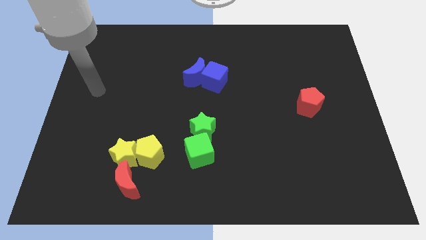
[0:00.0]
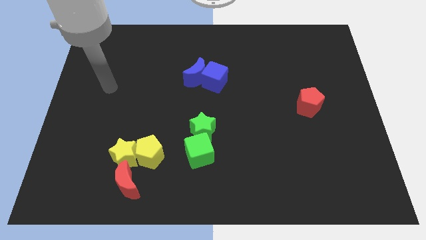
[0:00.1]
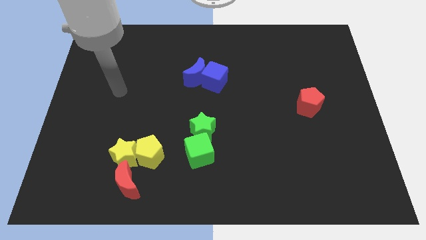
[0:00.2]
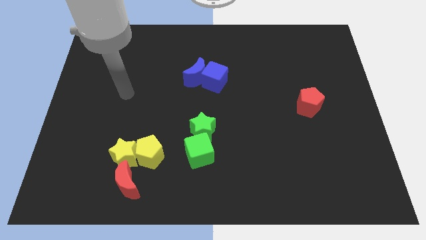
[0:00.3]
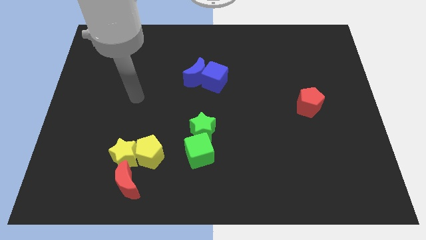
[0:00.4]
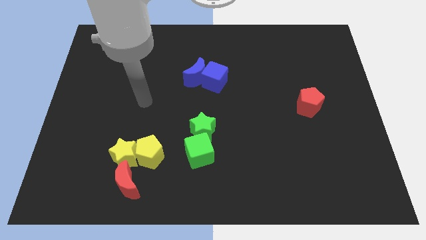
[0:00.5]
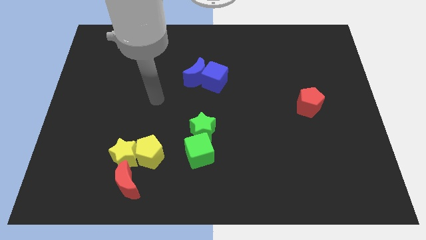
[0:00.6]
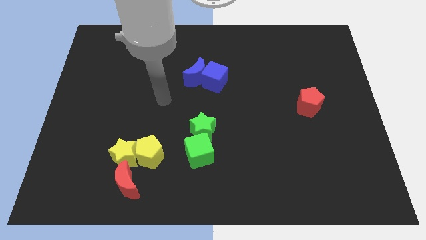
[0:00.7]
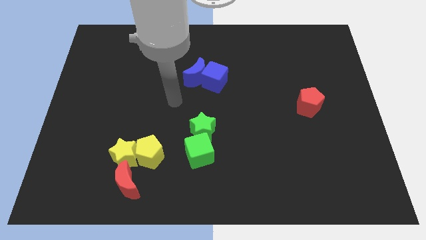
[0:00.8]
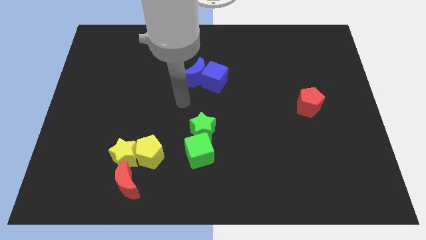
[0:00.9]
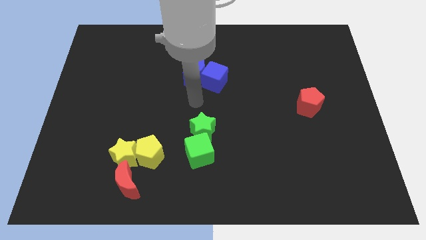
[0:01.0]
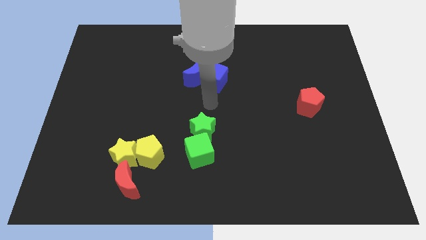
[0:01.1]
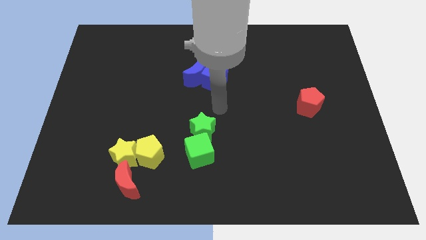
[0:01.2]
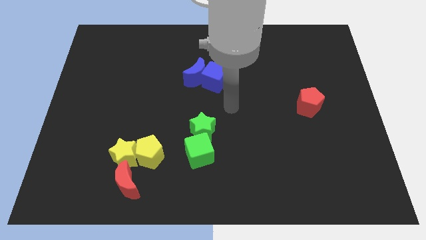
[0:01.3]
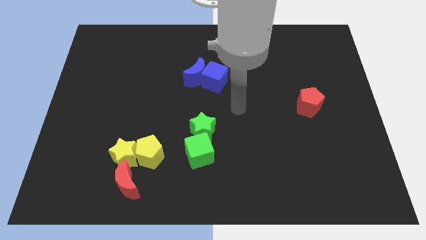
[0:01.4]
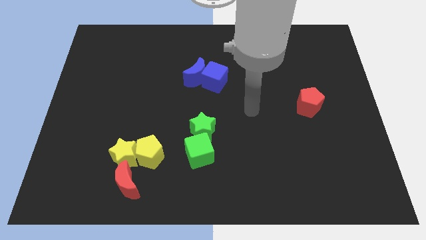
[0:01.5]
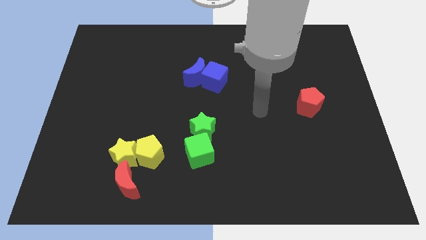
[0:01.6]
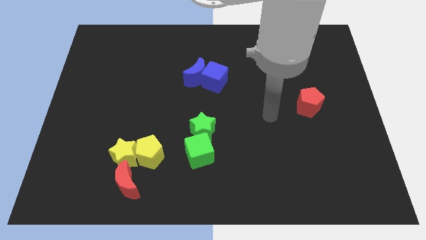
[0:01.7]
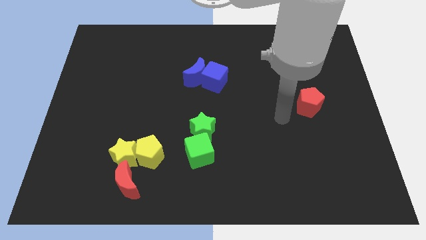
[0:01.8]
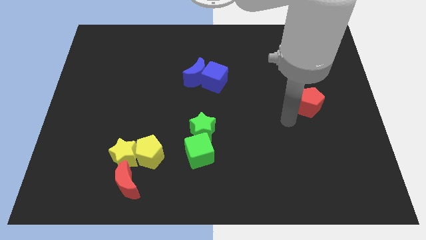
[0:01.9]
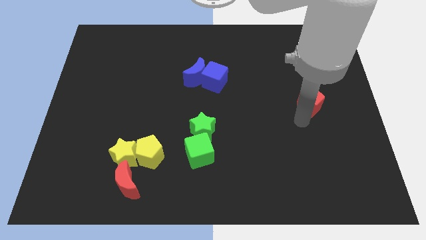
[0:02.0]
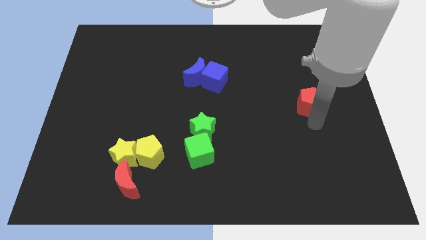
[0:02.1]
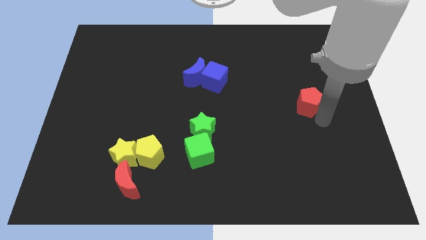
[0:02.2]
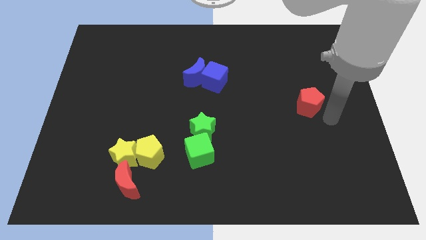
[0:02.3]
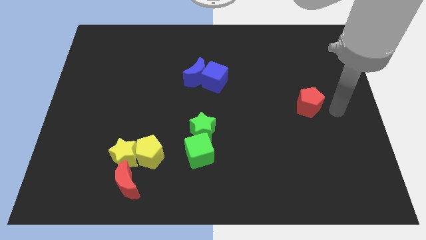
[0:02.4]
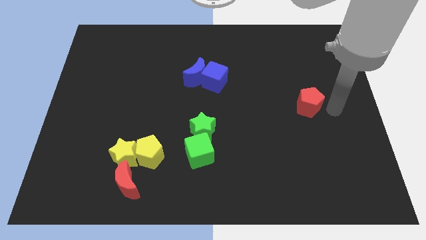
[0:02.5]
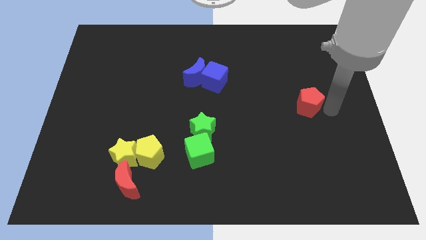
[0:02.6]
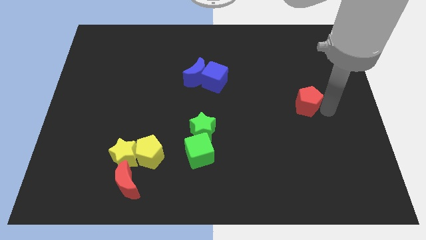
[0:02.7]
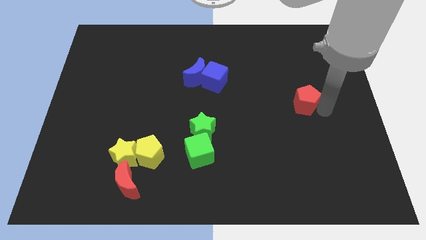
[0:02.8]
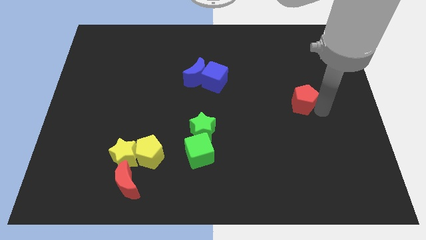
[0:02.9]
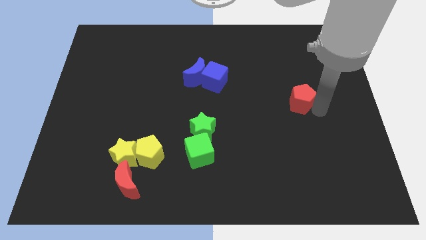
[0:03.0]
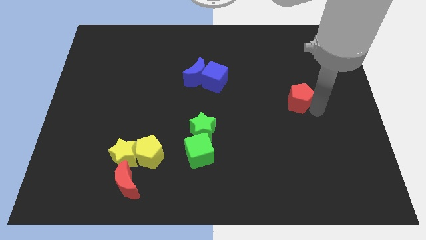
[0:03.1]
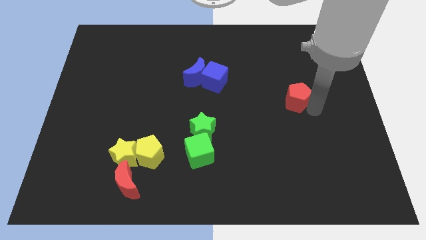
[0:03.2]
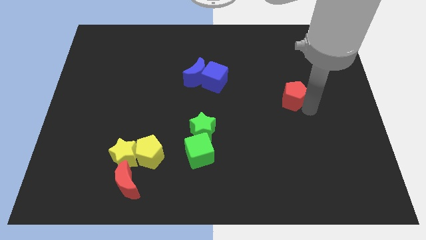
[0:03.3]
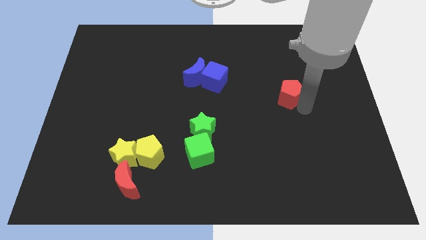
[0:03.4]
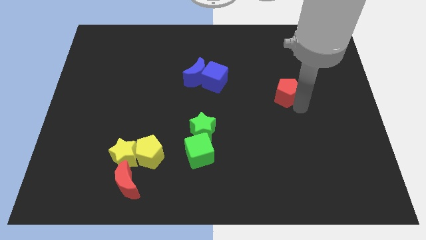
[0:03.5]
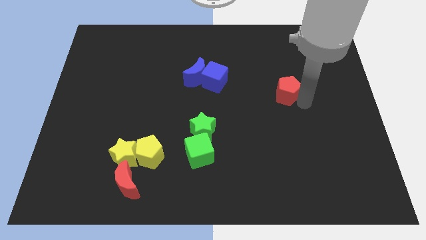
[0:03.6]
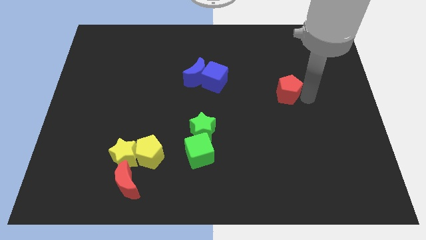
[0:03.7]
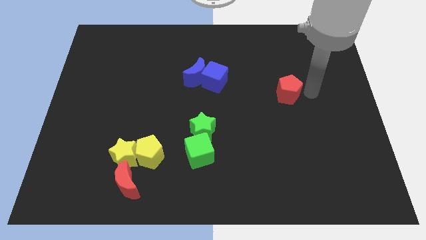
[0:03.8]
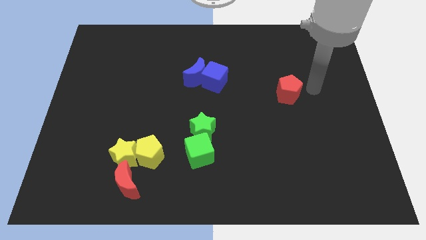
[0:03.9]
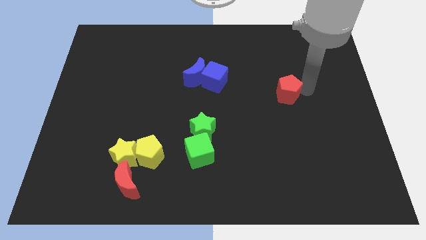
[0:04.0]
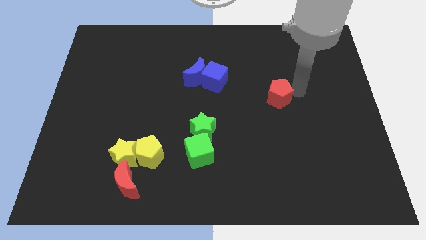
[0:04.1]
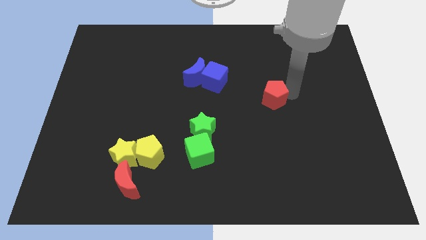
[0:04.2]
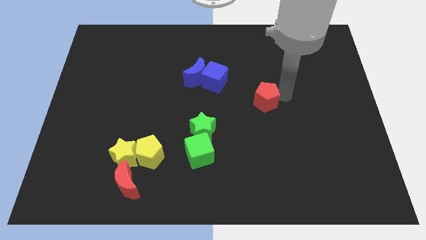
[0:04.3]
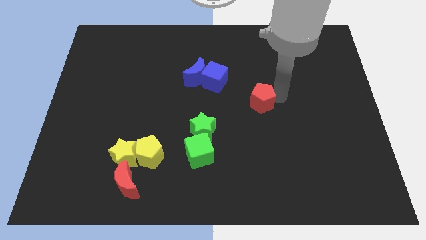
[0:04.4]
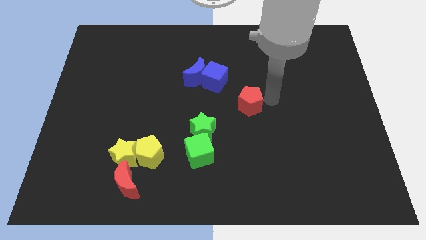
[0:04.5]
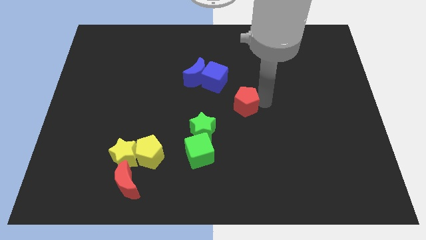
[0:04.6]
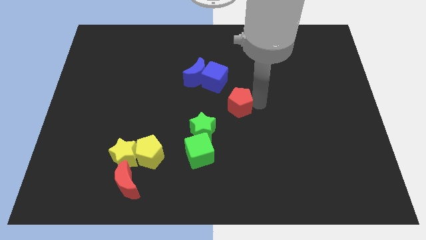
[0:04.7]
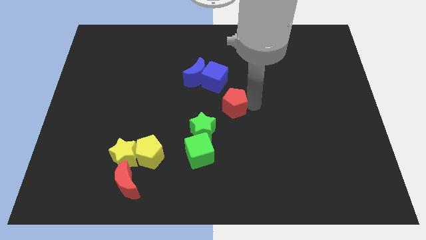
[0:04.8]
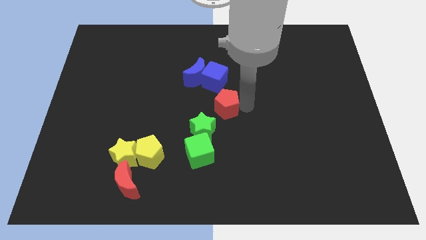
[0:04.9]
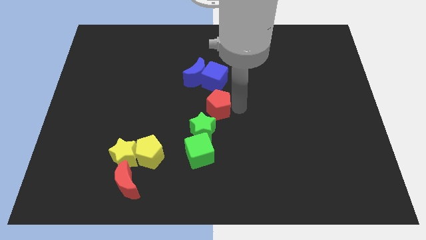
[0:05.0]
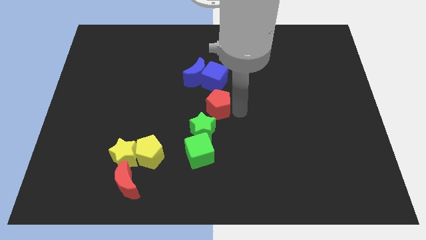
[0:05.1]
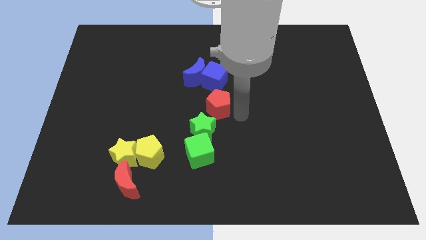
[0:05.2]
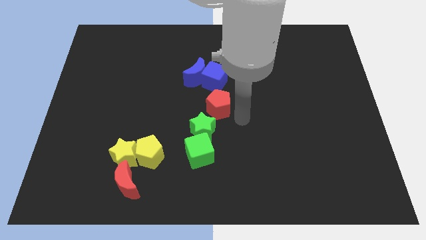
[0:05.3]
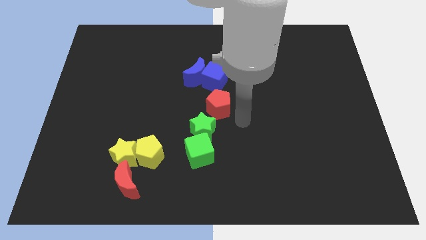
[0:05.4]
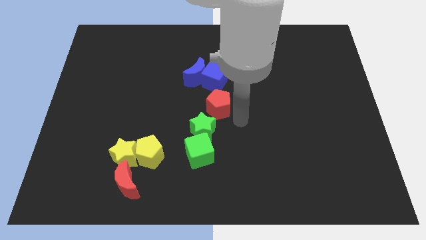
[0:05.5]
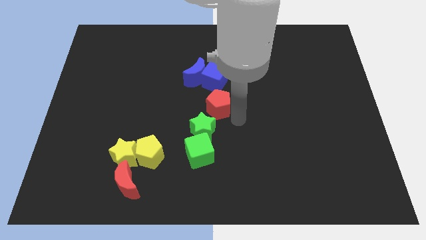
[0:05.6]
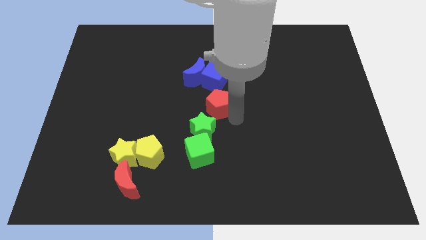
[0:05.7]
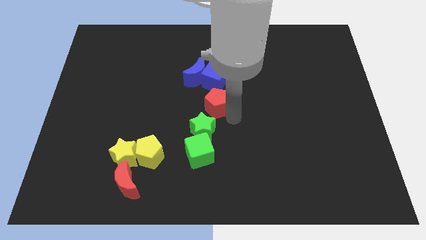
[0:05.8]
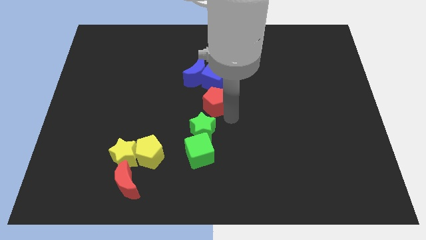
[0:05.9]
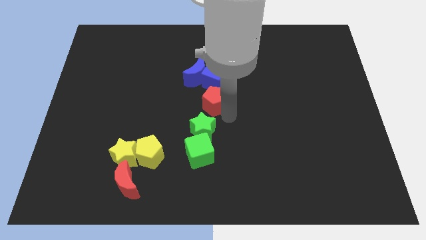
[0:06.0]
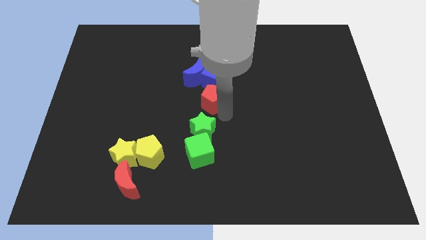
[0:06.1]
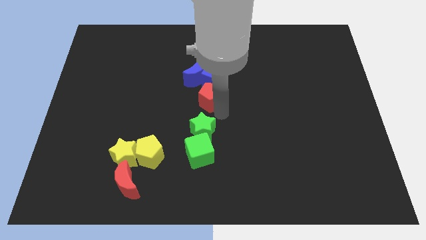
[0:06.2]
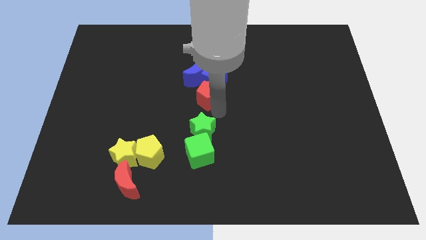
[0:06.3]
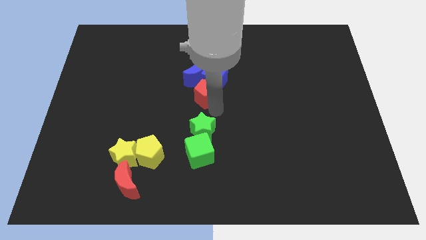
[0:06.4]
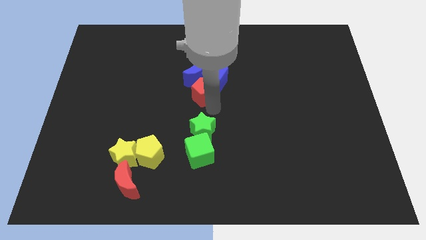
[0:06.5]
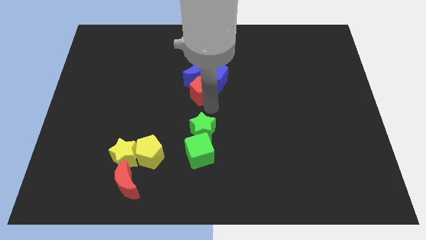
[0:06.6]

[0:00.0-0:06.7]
move the red pentagon left of the blue cube
